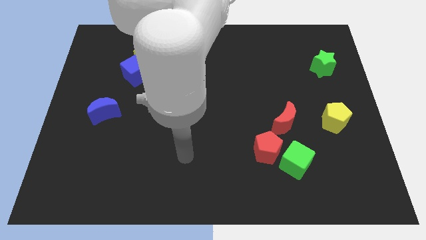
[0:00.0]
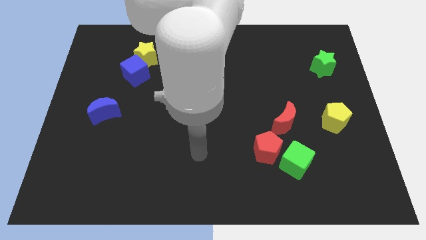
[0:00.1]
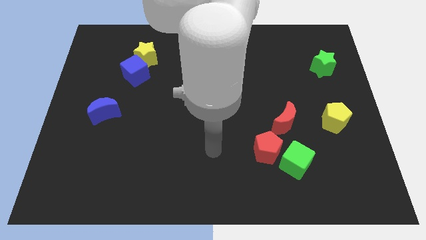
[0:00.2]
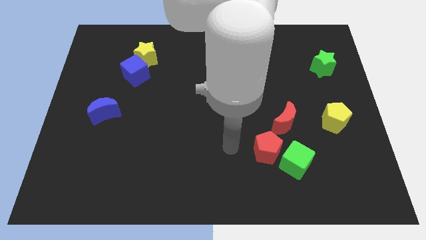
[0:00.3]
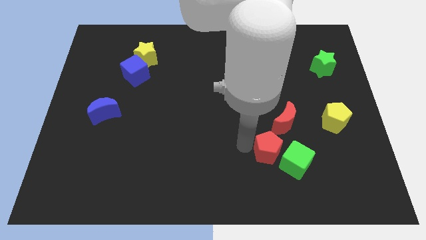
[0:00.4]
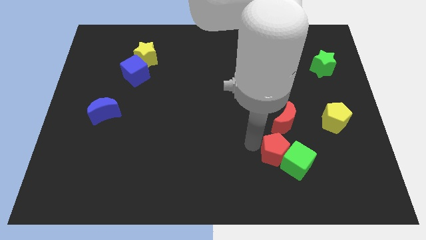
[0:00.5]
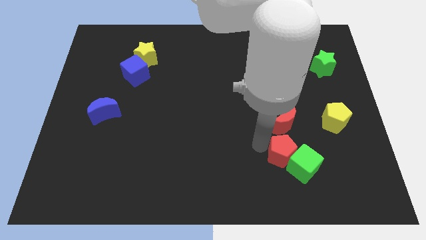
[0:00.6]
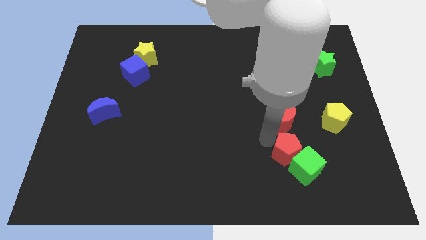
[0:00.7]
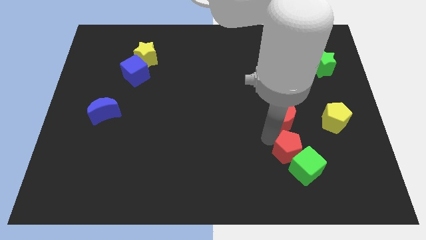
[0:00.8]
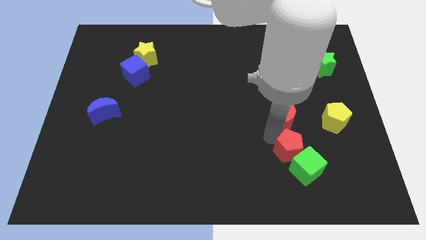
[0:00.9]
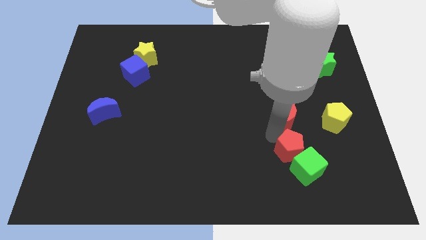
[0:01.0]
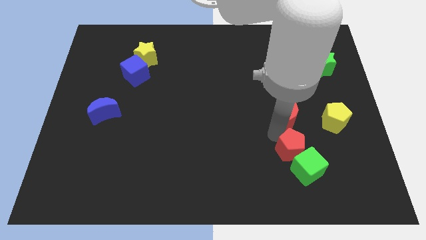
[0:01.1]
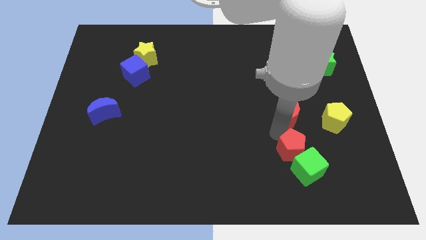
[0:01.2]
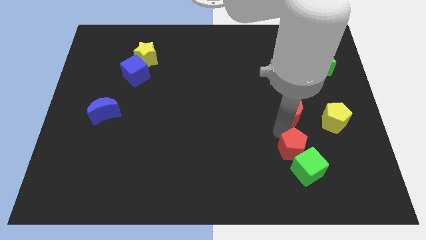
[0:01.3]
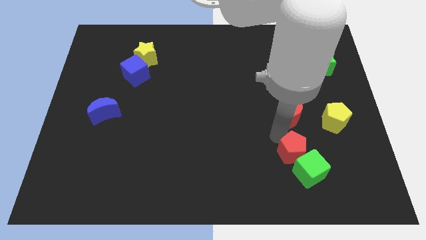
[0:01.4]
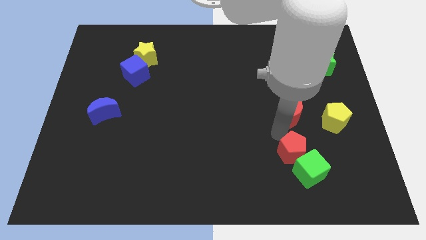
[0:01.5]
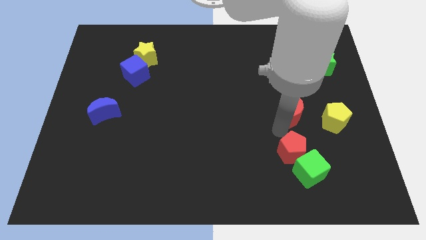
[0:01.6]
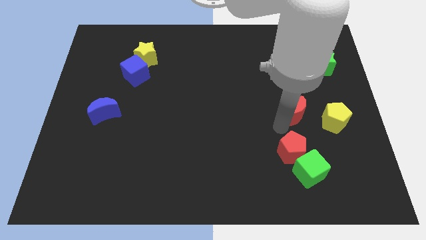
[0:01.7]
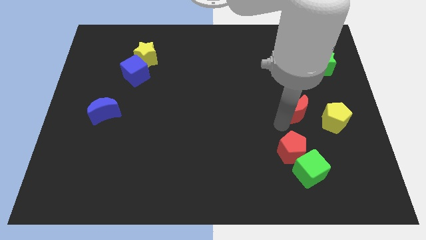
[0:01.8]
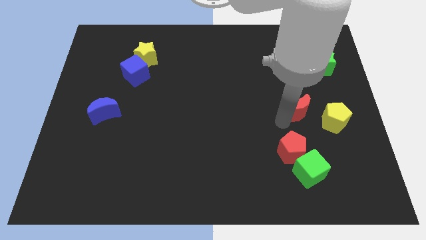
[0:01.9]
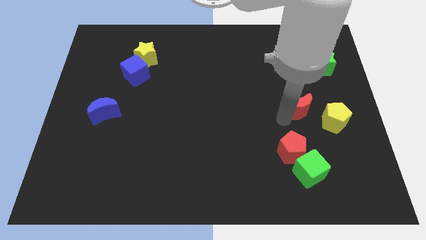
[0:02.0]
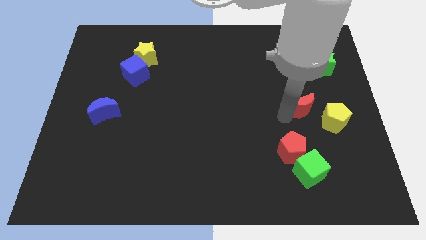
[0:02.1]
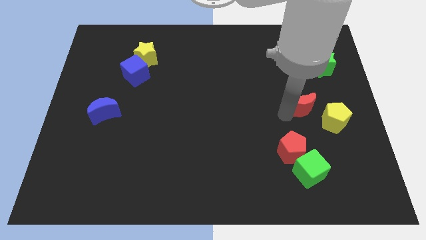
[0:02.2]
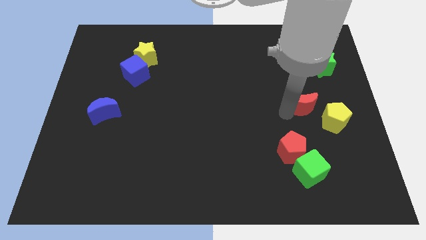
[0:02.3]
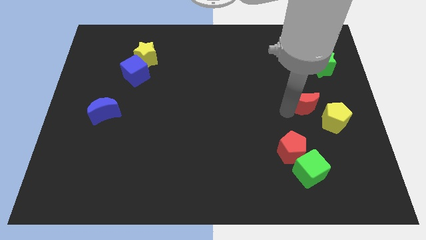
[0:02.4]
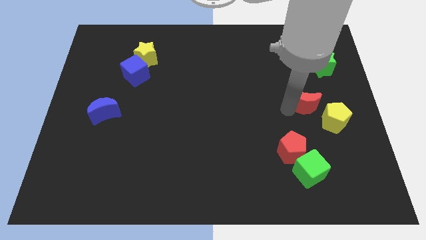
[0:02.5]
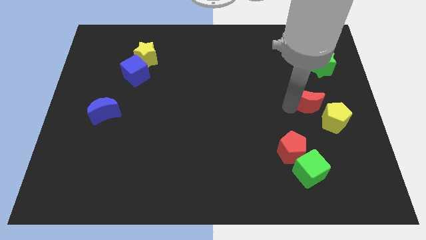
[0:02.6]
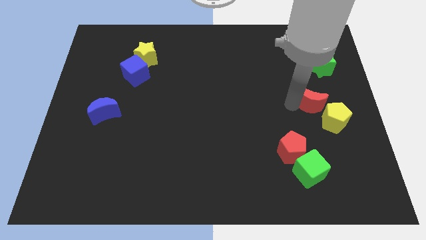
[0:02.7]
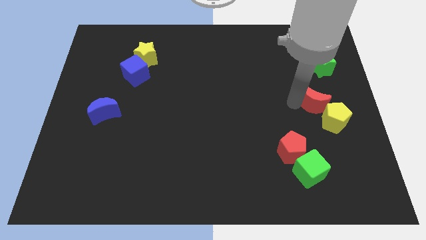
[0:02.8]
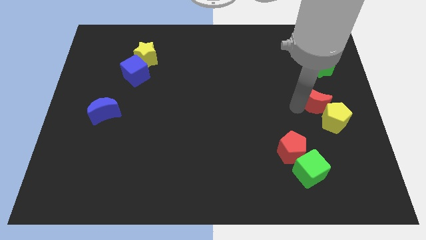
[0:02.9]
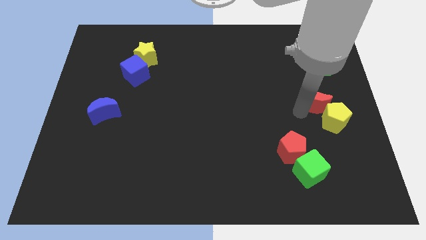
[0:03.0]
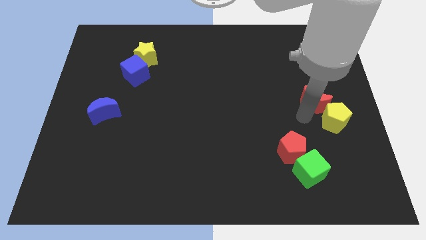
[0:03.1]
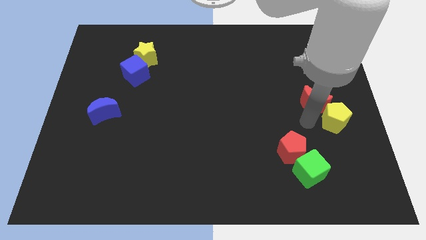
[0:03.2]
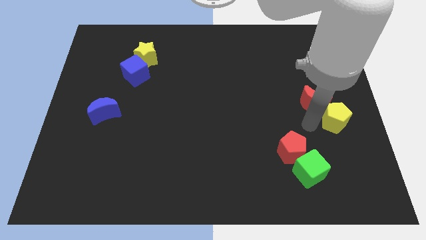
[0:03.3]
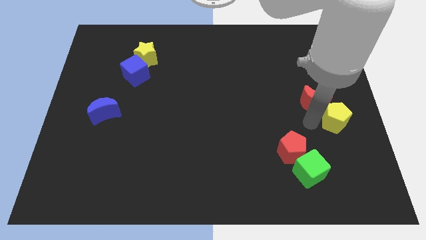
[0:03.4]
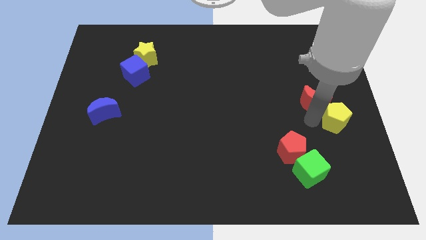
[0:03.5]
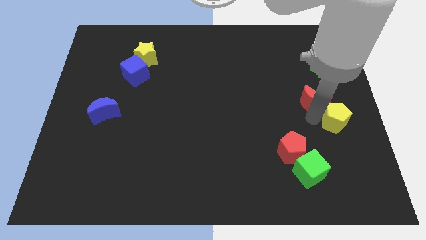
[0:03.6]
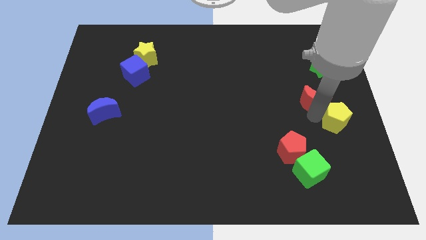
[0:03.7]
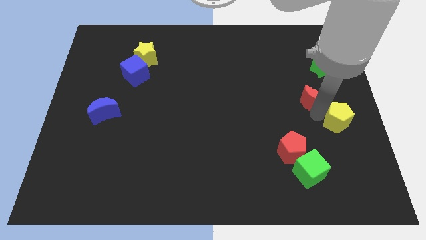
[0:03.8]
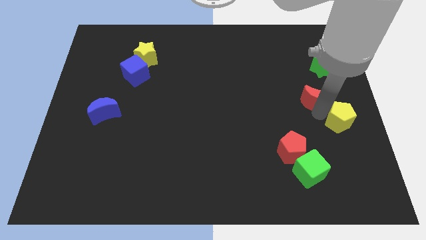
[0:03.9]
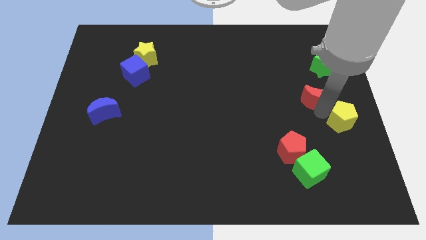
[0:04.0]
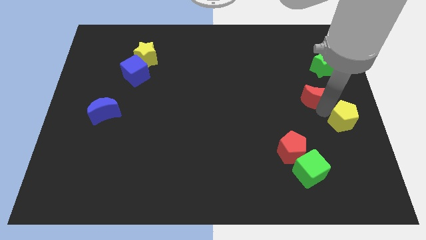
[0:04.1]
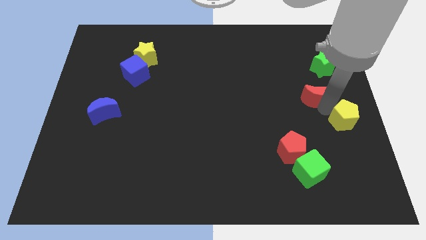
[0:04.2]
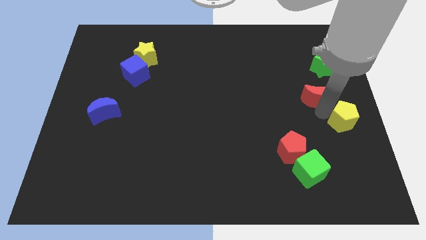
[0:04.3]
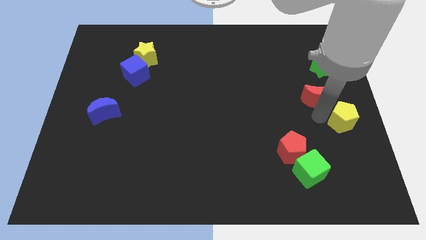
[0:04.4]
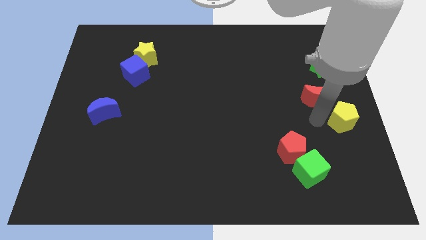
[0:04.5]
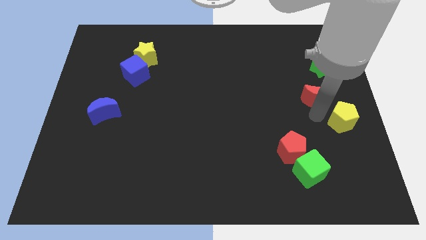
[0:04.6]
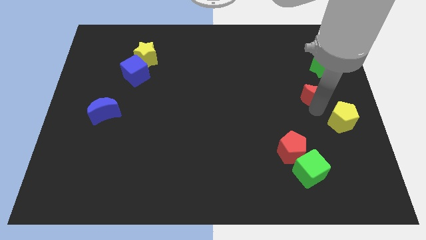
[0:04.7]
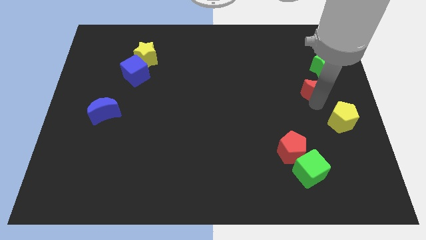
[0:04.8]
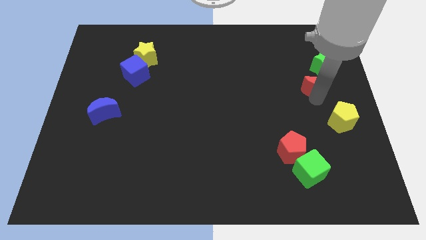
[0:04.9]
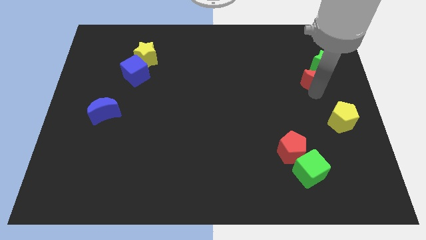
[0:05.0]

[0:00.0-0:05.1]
put the red moon to the green star

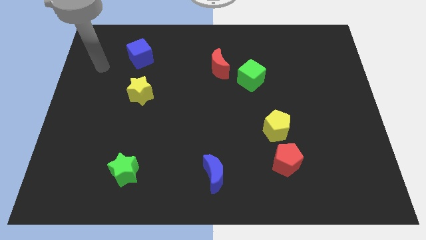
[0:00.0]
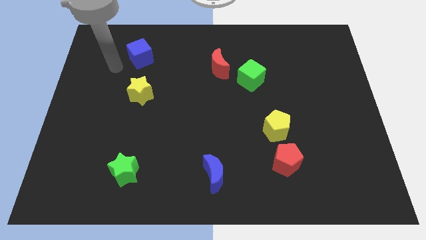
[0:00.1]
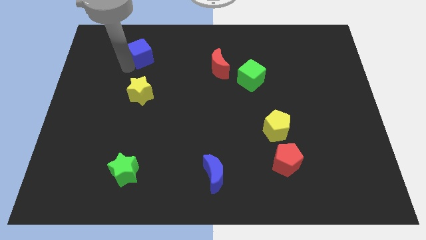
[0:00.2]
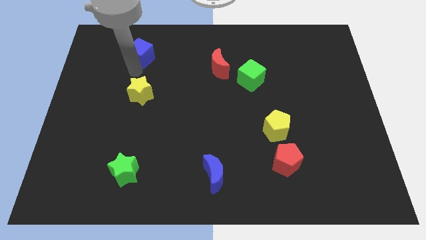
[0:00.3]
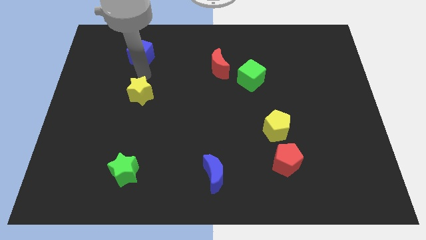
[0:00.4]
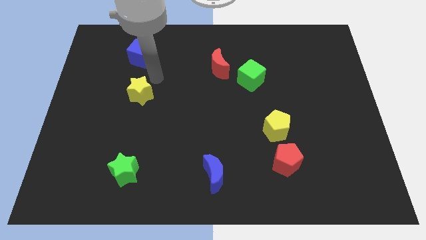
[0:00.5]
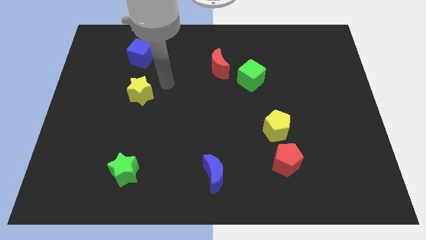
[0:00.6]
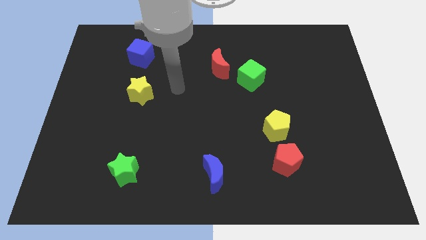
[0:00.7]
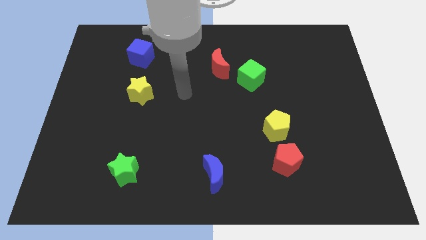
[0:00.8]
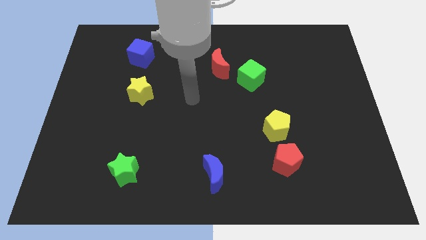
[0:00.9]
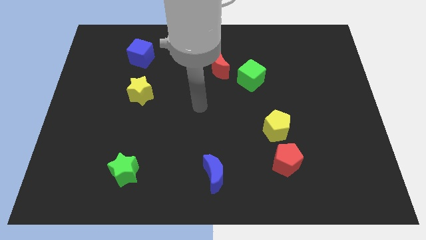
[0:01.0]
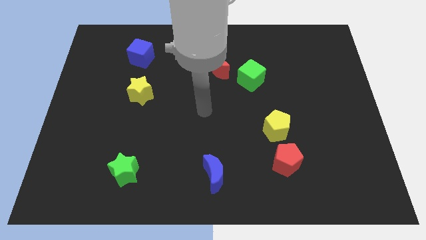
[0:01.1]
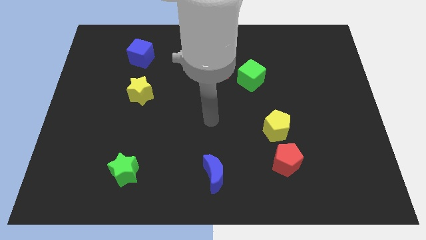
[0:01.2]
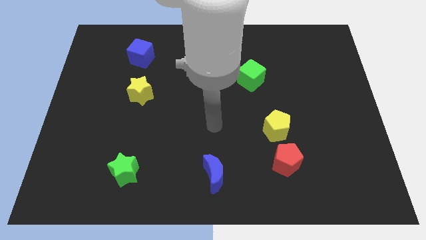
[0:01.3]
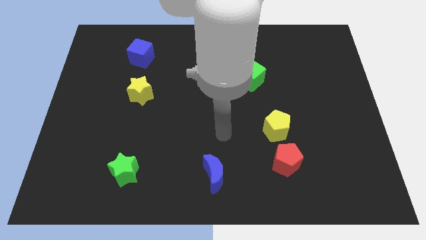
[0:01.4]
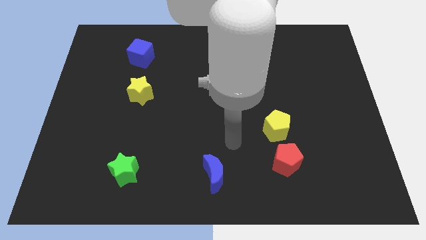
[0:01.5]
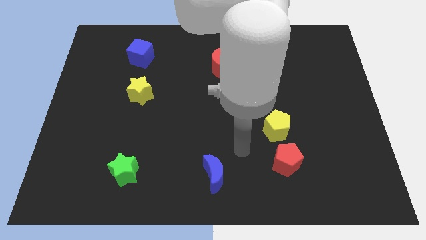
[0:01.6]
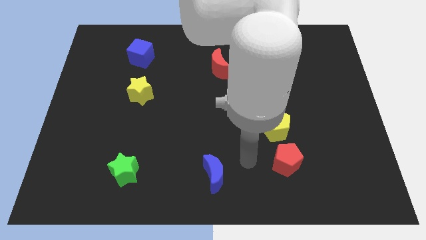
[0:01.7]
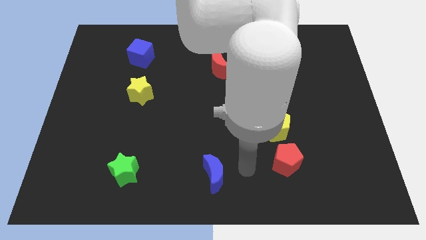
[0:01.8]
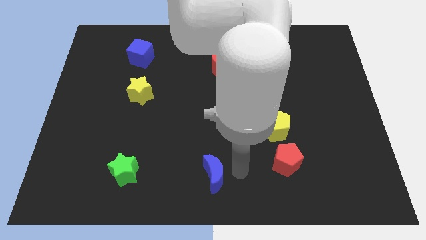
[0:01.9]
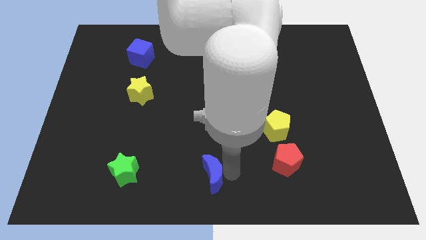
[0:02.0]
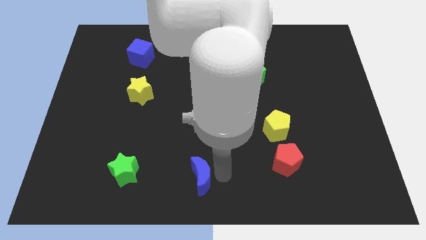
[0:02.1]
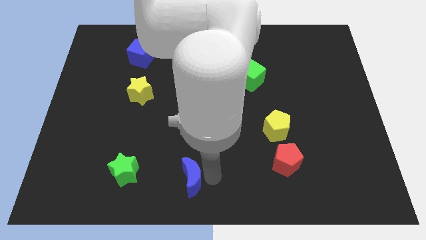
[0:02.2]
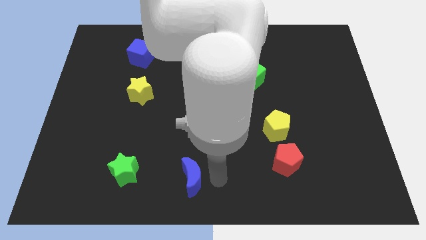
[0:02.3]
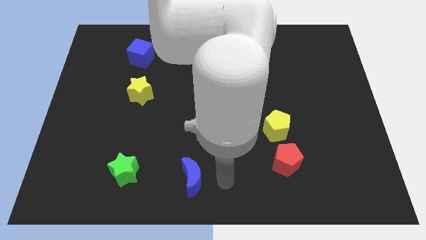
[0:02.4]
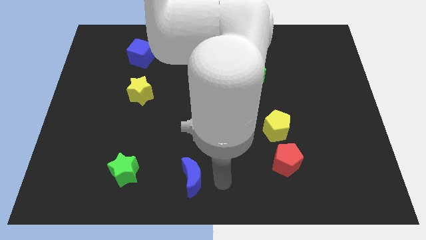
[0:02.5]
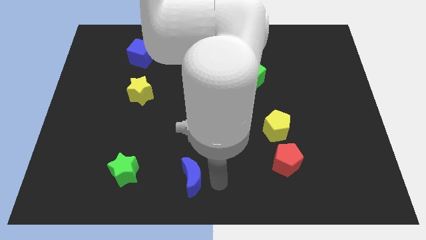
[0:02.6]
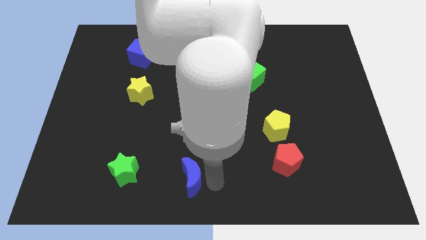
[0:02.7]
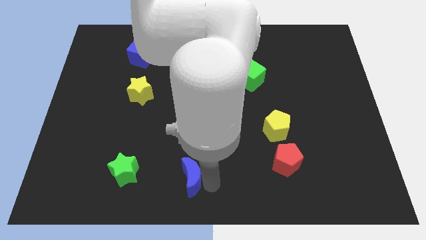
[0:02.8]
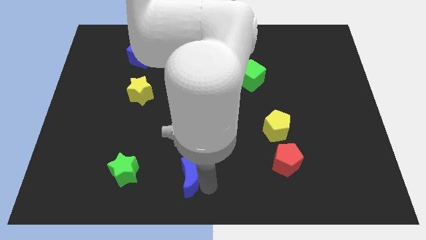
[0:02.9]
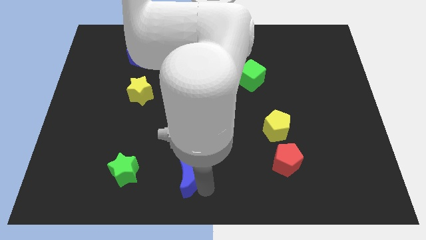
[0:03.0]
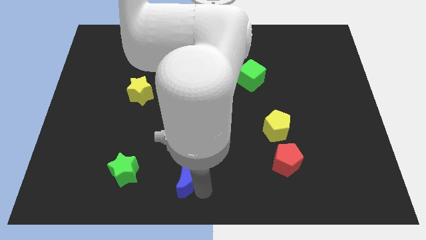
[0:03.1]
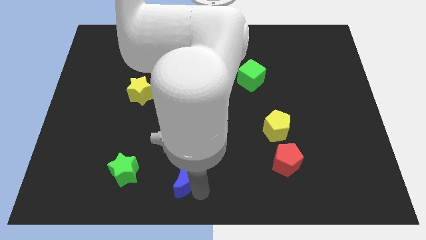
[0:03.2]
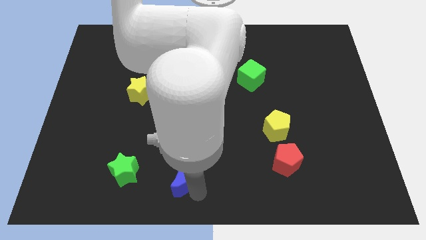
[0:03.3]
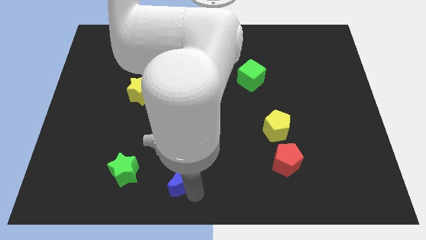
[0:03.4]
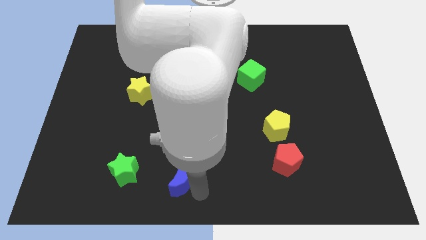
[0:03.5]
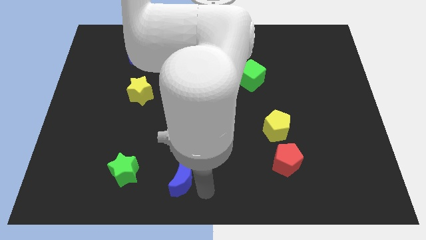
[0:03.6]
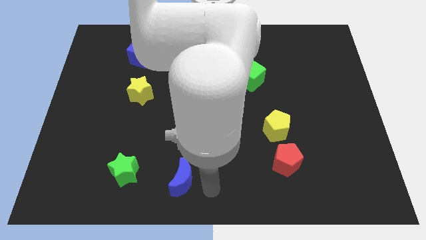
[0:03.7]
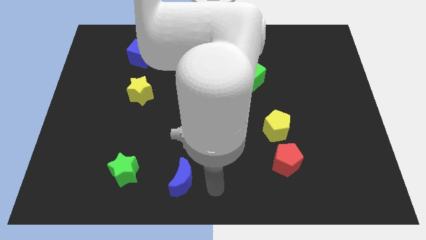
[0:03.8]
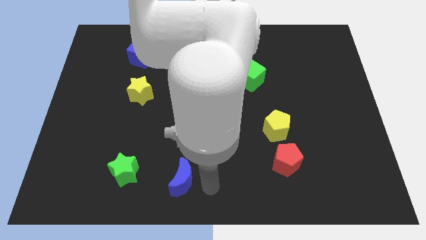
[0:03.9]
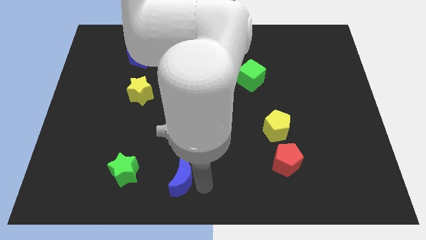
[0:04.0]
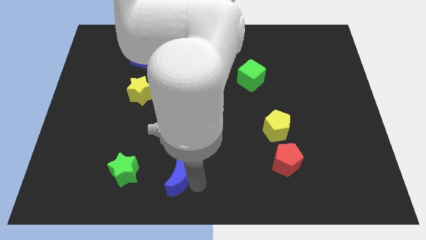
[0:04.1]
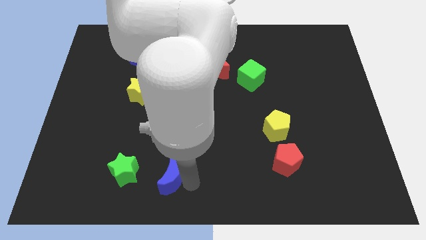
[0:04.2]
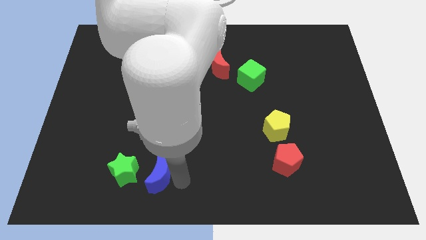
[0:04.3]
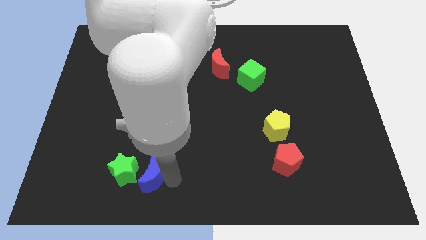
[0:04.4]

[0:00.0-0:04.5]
slide the blue moon towards the green star
